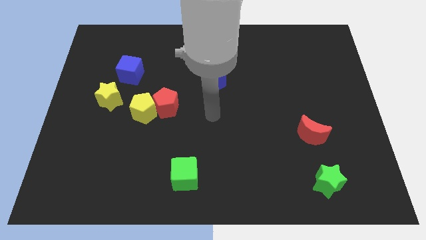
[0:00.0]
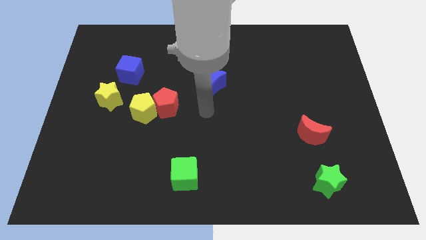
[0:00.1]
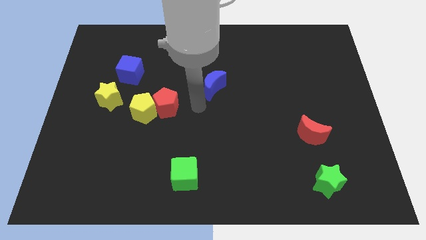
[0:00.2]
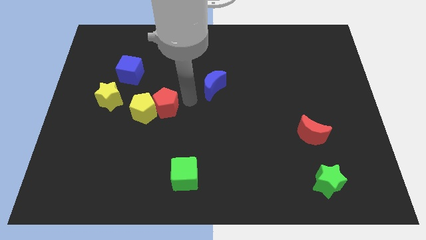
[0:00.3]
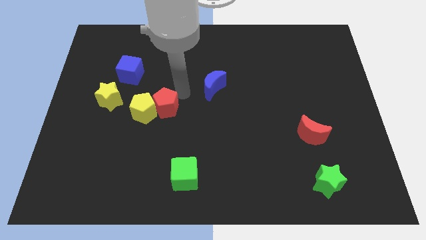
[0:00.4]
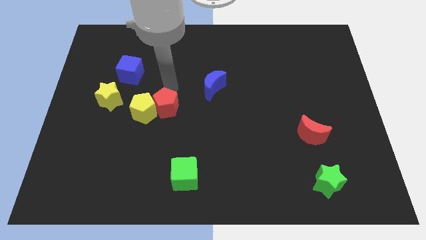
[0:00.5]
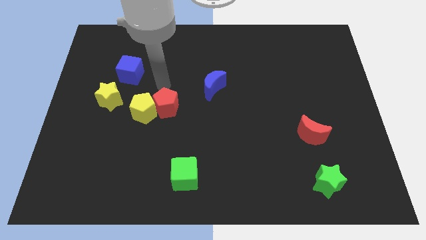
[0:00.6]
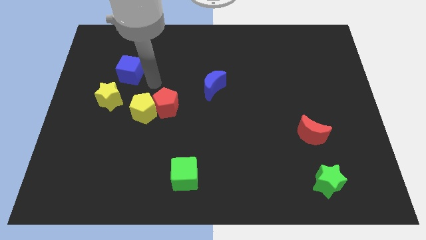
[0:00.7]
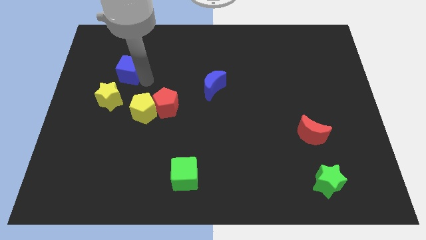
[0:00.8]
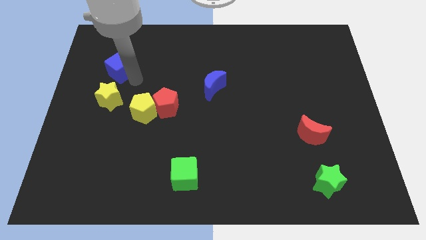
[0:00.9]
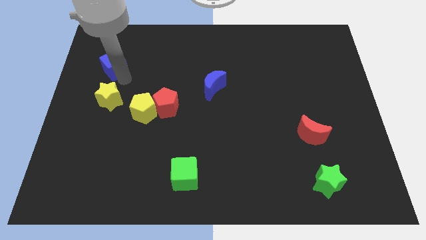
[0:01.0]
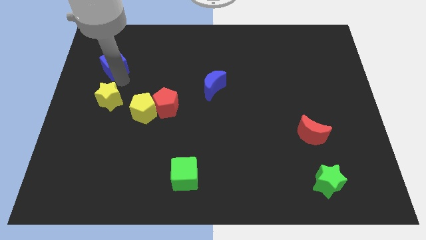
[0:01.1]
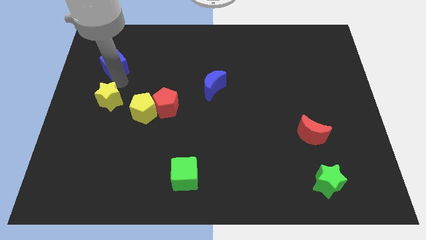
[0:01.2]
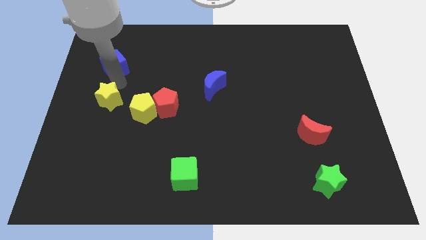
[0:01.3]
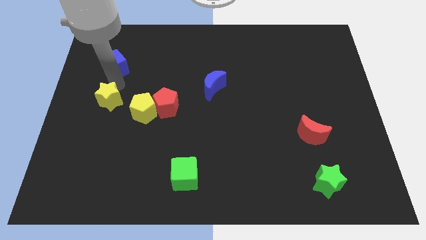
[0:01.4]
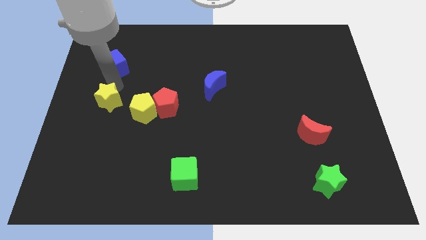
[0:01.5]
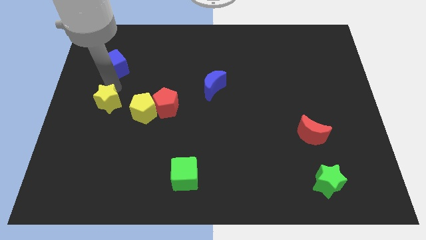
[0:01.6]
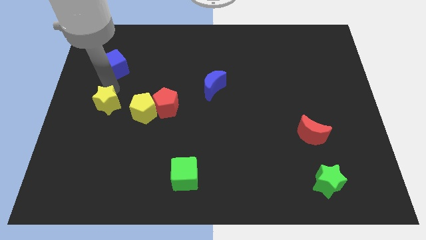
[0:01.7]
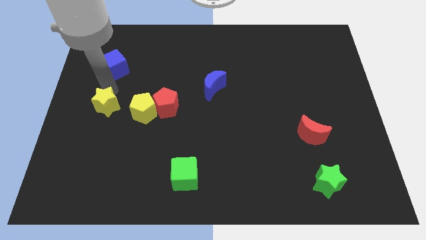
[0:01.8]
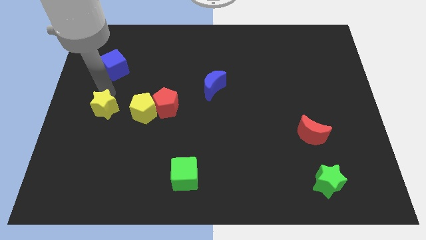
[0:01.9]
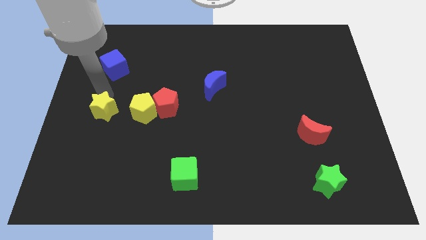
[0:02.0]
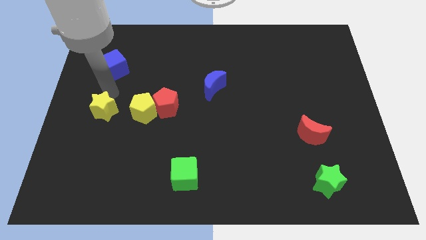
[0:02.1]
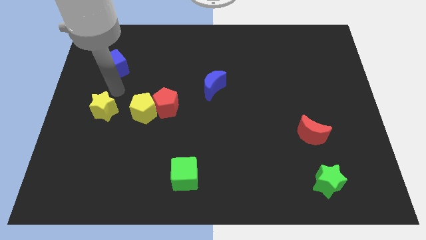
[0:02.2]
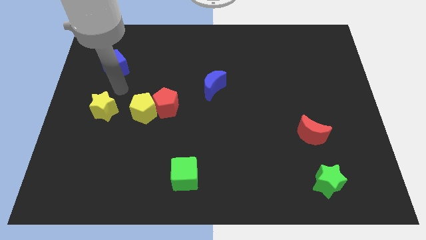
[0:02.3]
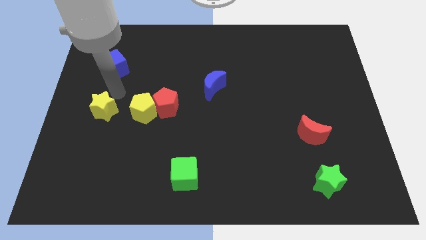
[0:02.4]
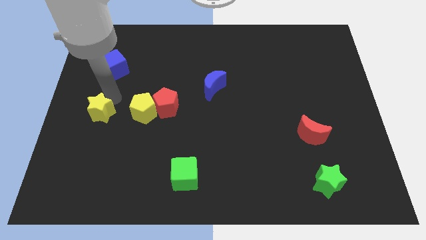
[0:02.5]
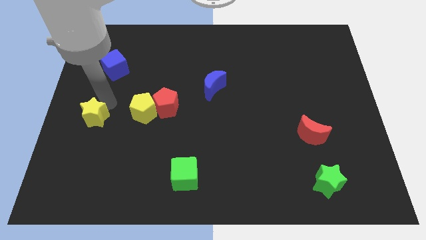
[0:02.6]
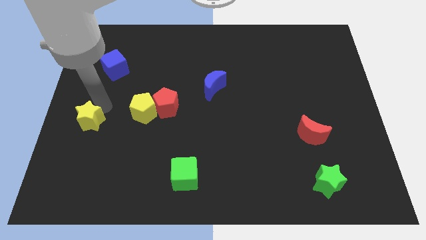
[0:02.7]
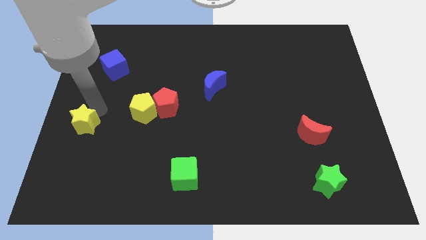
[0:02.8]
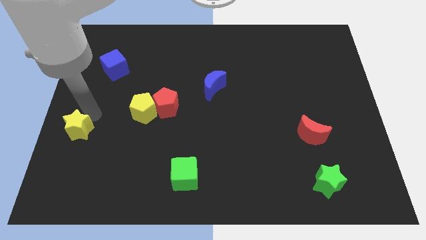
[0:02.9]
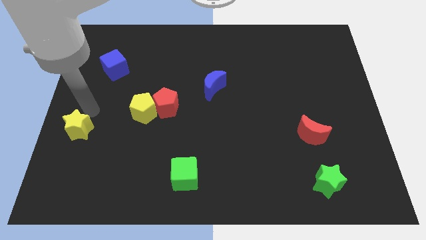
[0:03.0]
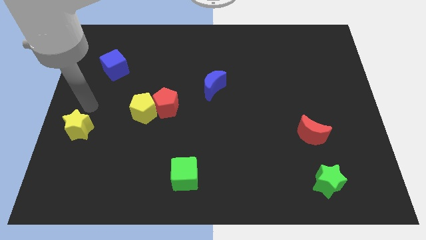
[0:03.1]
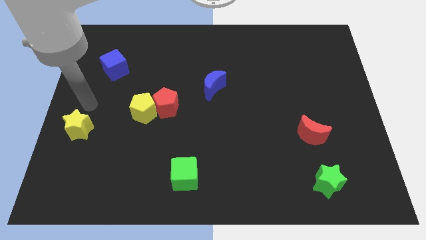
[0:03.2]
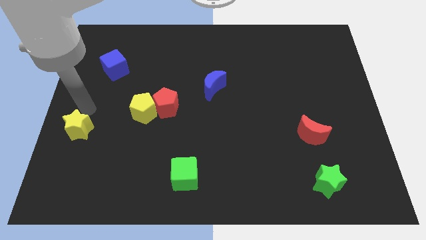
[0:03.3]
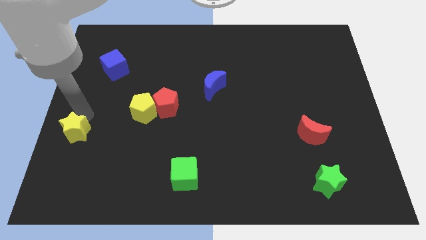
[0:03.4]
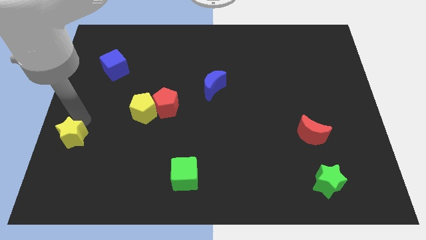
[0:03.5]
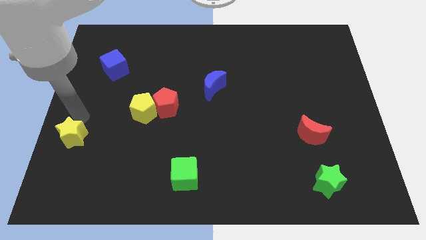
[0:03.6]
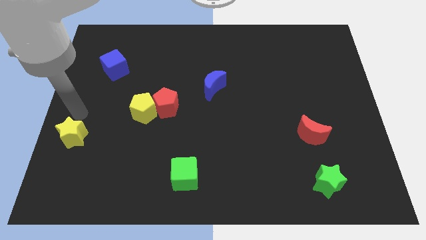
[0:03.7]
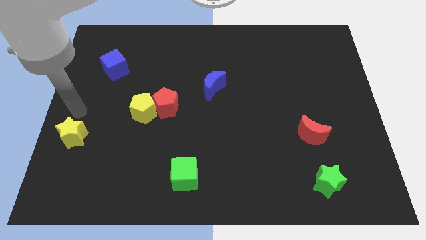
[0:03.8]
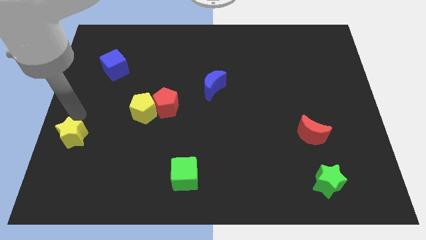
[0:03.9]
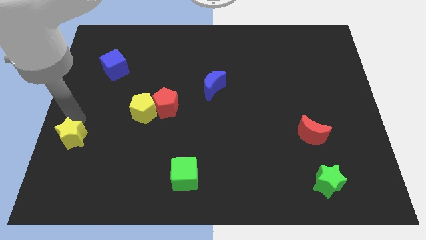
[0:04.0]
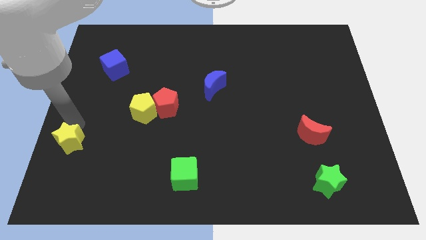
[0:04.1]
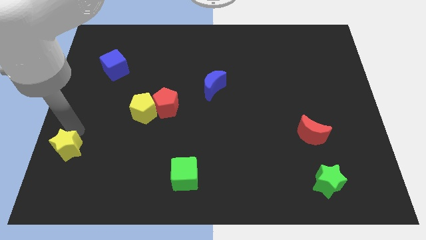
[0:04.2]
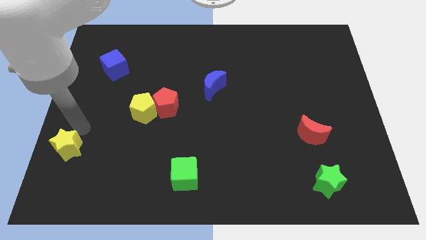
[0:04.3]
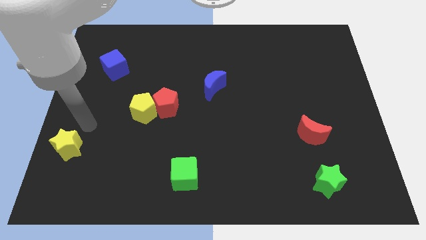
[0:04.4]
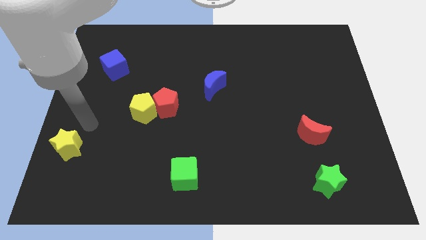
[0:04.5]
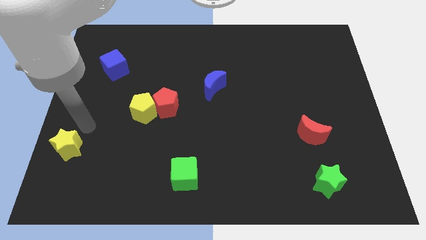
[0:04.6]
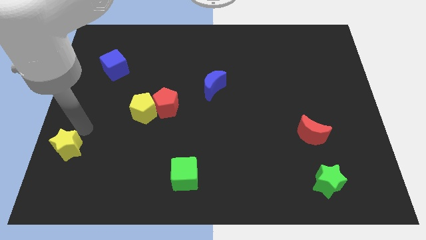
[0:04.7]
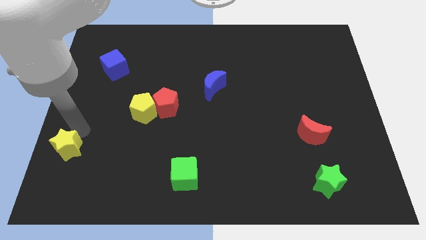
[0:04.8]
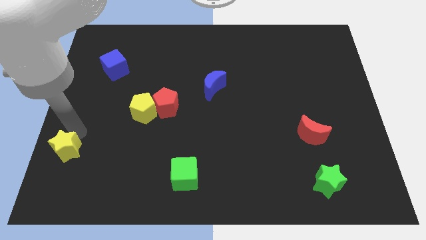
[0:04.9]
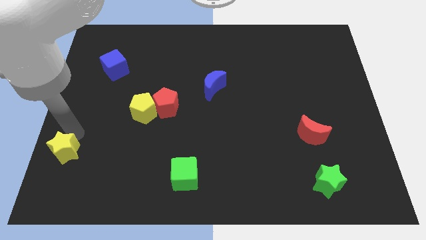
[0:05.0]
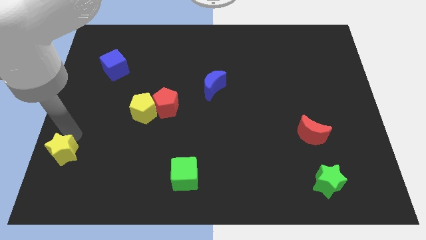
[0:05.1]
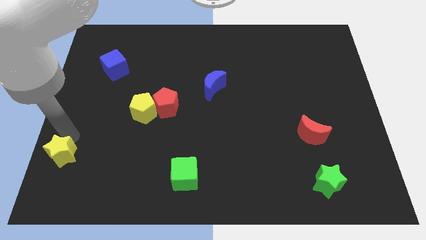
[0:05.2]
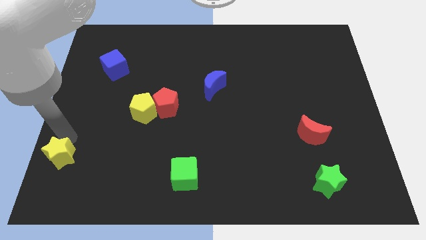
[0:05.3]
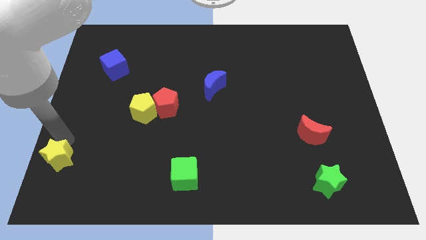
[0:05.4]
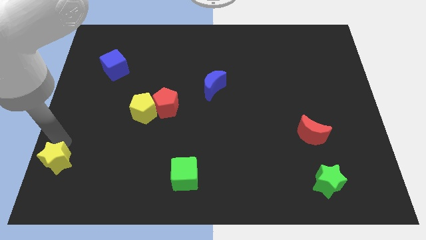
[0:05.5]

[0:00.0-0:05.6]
move the yellow star to the bottom left corner

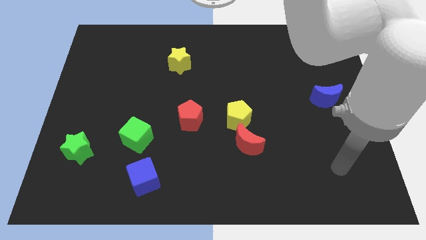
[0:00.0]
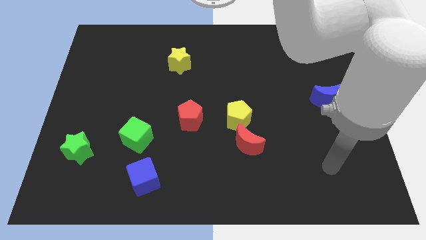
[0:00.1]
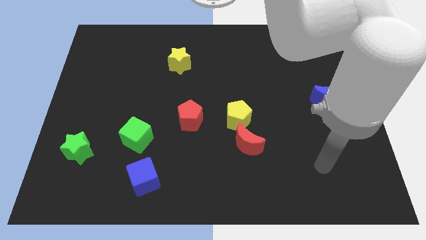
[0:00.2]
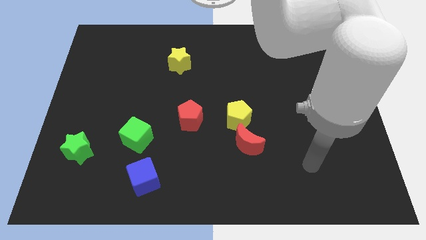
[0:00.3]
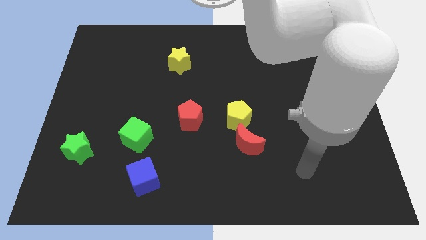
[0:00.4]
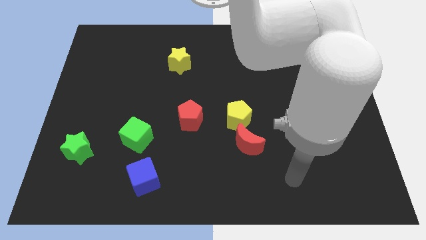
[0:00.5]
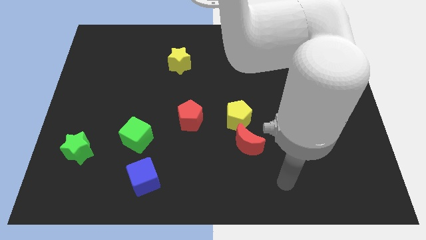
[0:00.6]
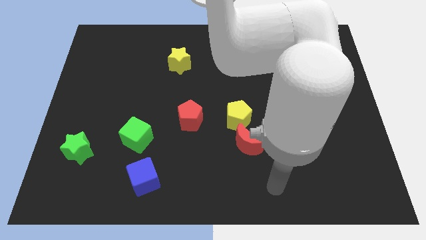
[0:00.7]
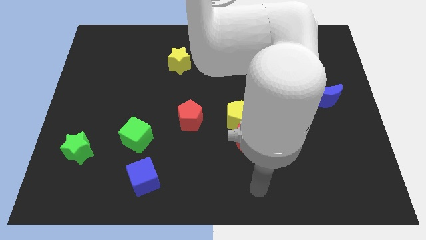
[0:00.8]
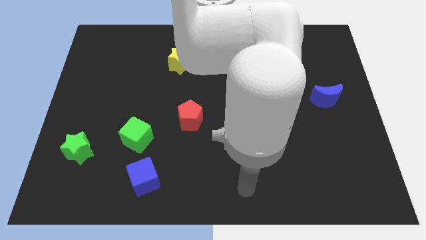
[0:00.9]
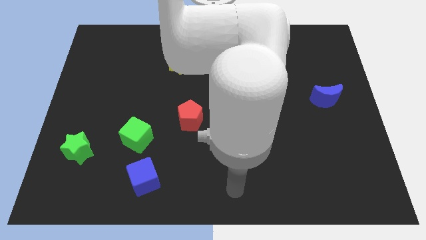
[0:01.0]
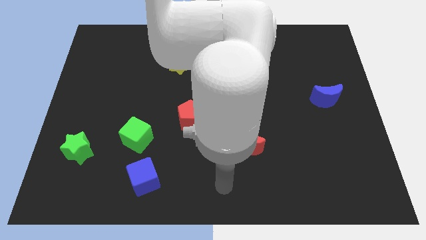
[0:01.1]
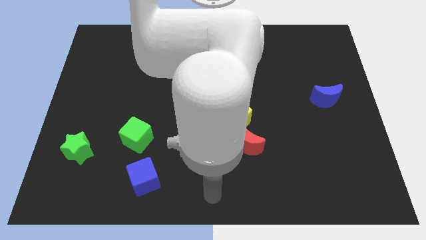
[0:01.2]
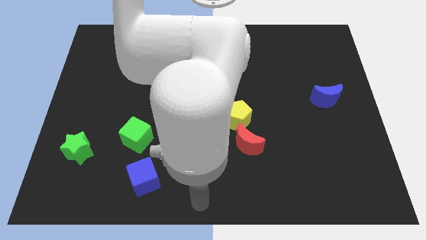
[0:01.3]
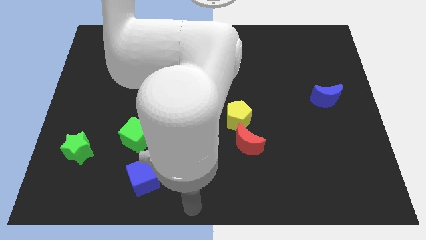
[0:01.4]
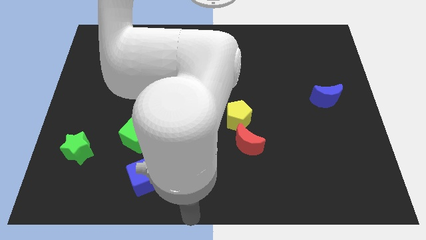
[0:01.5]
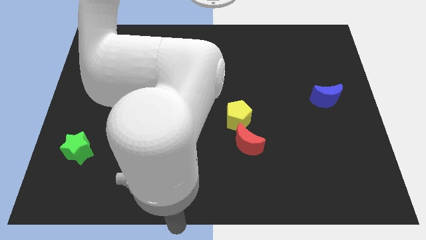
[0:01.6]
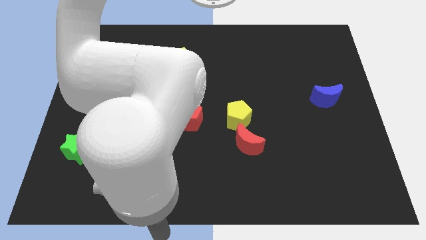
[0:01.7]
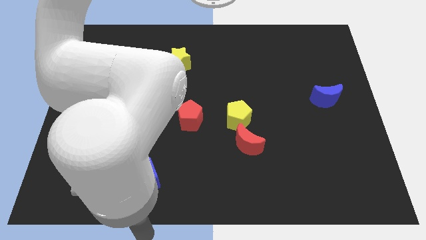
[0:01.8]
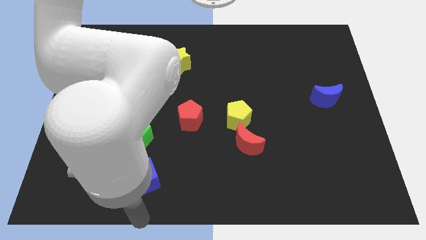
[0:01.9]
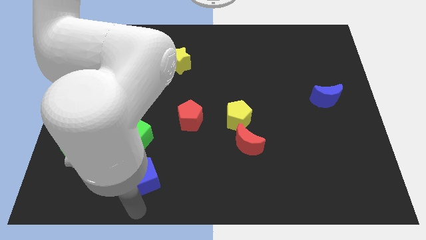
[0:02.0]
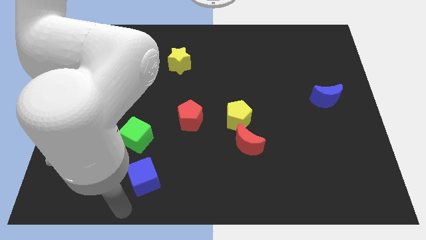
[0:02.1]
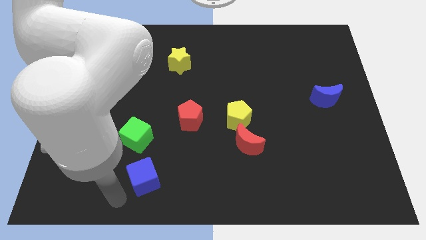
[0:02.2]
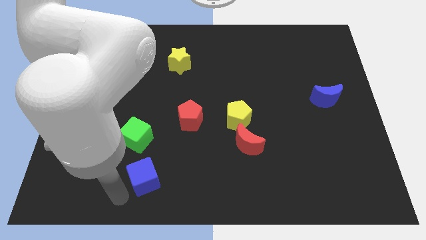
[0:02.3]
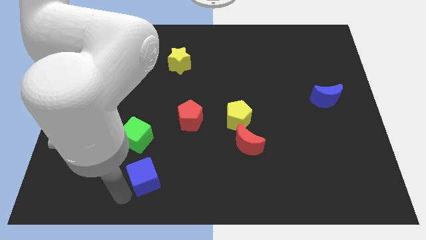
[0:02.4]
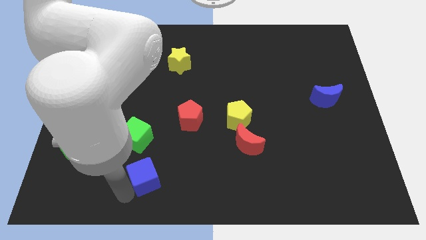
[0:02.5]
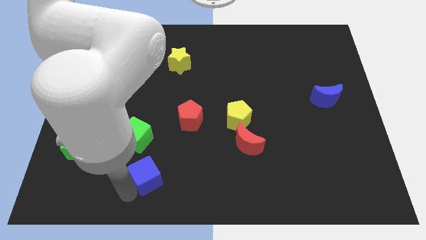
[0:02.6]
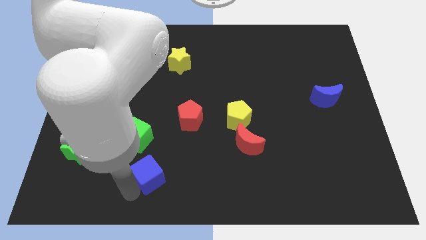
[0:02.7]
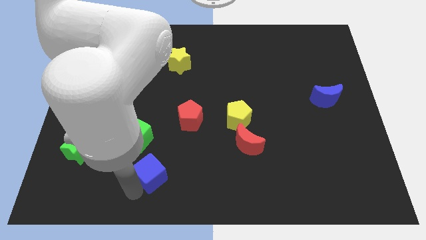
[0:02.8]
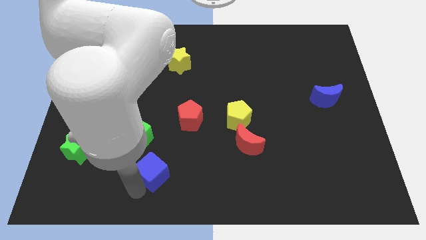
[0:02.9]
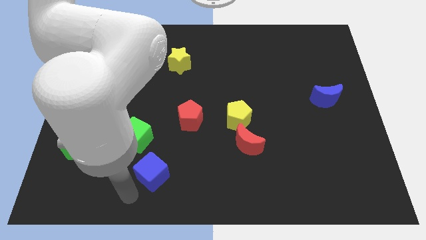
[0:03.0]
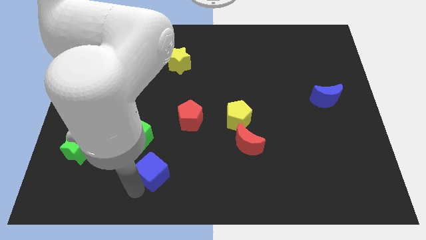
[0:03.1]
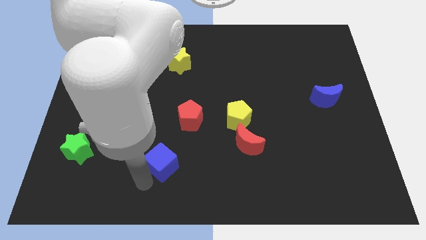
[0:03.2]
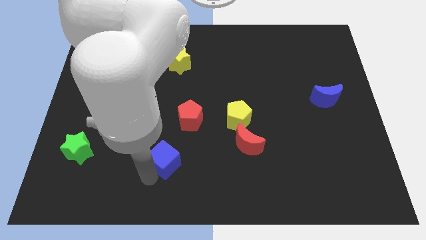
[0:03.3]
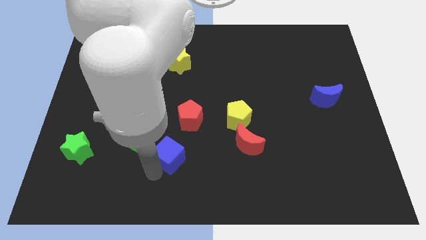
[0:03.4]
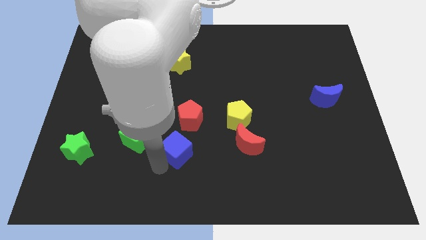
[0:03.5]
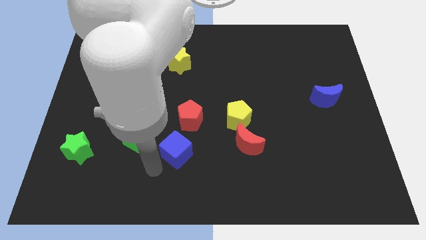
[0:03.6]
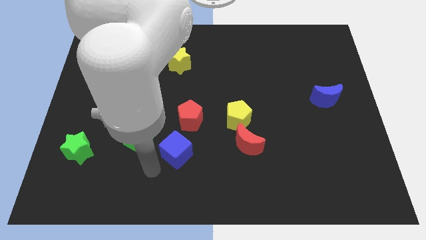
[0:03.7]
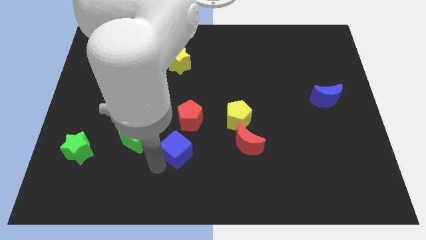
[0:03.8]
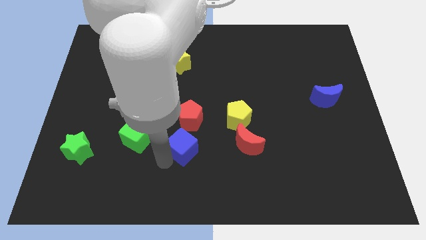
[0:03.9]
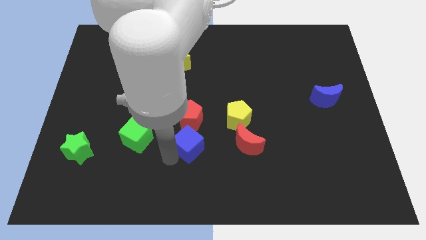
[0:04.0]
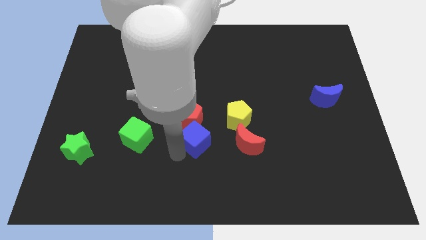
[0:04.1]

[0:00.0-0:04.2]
slide the blue cube to the middle of the board
